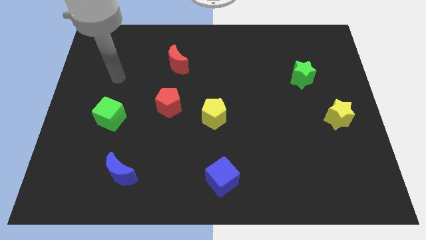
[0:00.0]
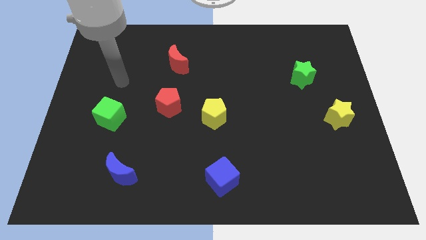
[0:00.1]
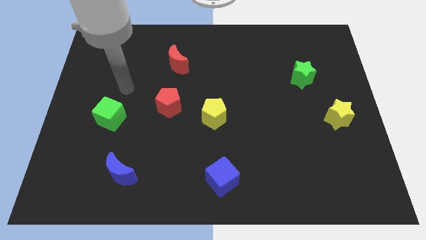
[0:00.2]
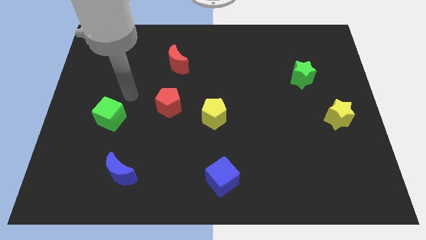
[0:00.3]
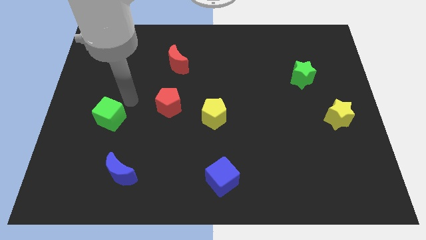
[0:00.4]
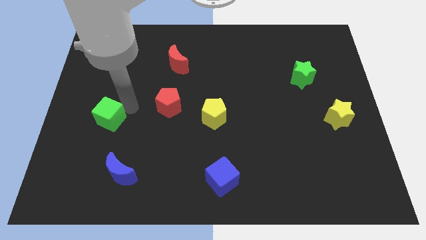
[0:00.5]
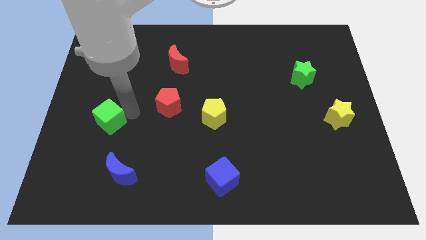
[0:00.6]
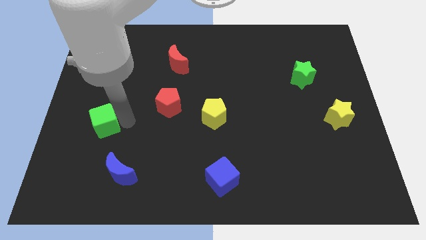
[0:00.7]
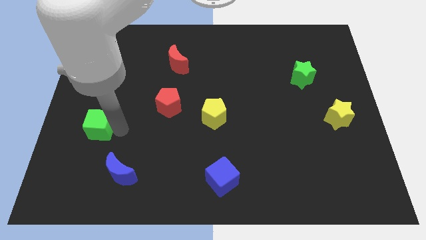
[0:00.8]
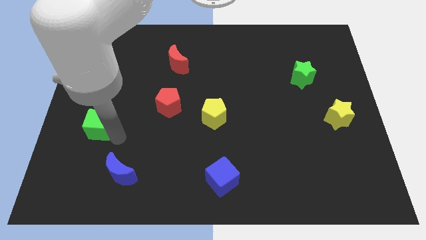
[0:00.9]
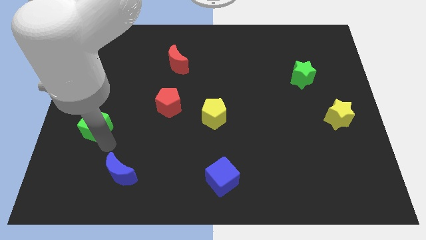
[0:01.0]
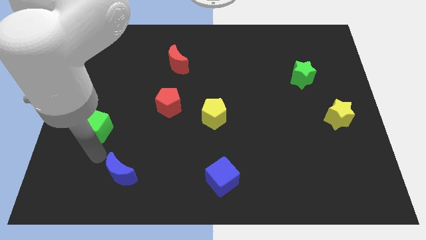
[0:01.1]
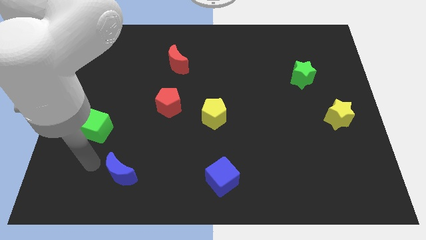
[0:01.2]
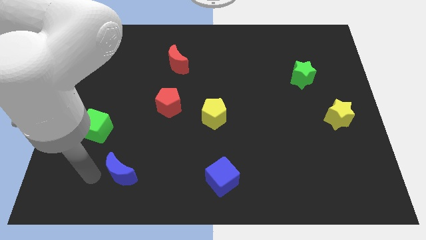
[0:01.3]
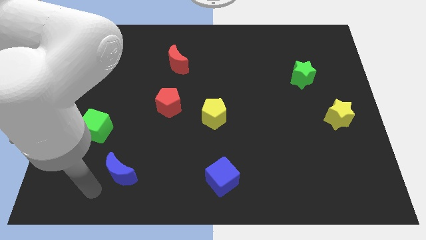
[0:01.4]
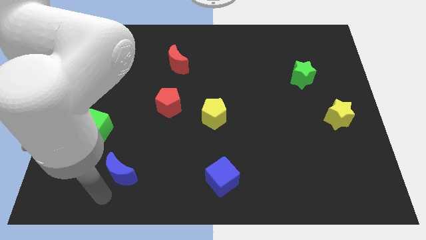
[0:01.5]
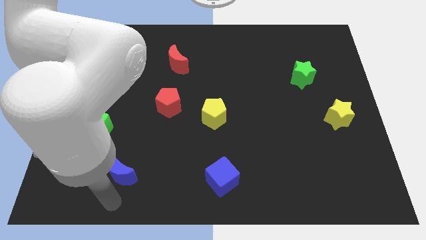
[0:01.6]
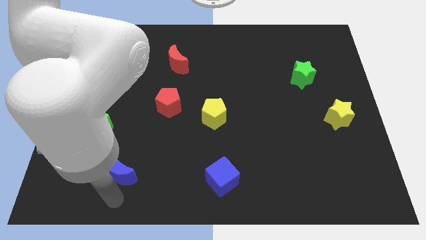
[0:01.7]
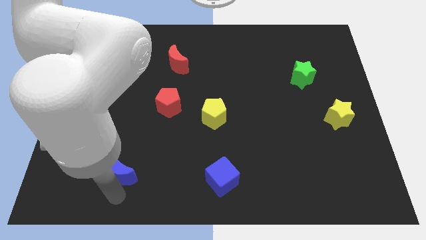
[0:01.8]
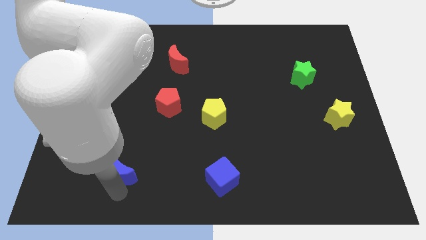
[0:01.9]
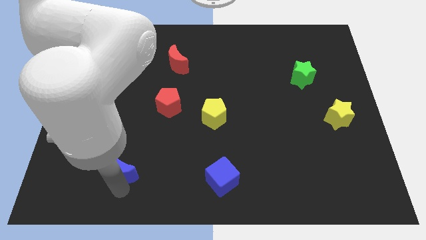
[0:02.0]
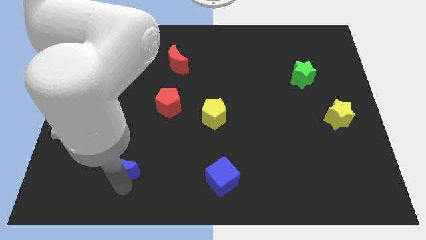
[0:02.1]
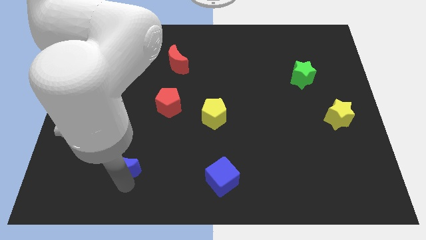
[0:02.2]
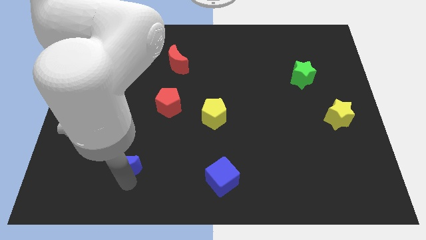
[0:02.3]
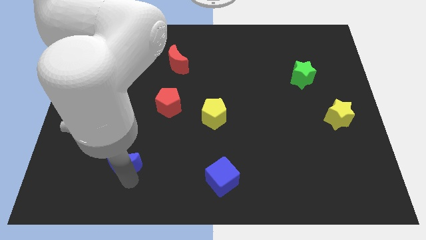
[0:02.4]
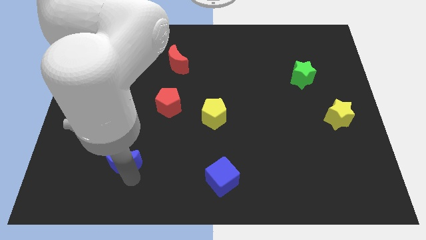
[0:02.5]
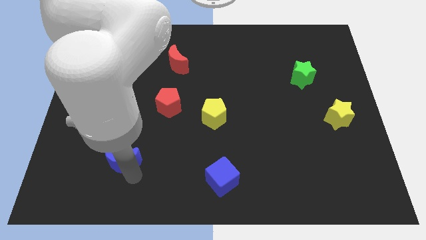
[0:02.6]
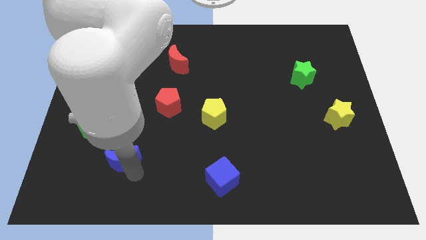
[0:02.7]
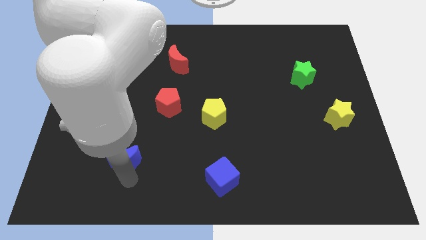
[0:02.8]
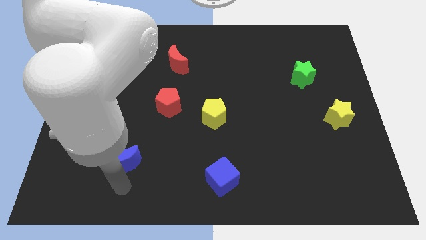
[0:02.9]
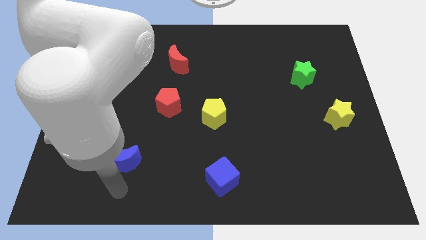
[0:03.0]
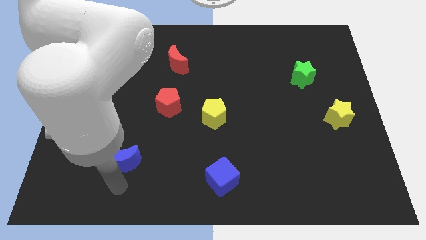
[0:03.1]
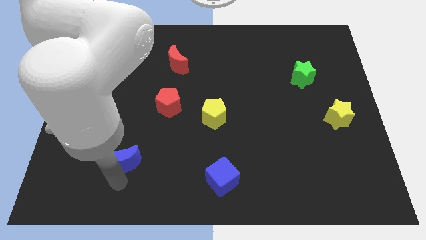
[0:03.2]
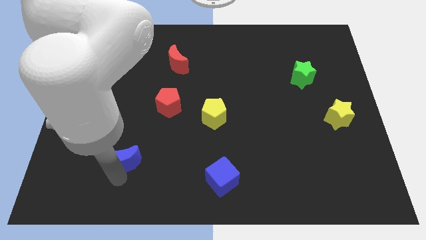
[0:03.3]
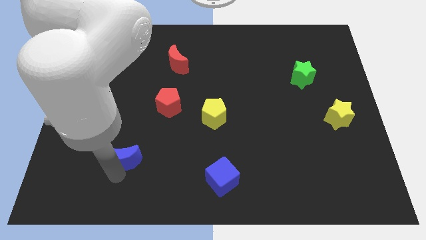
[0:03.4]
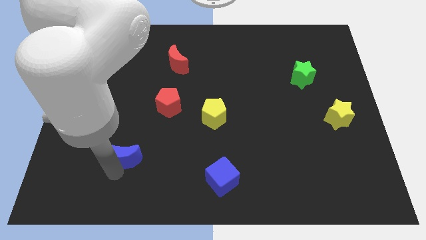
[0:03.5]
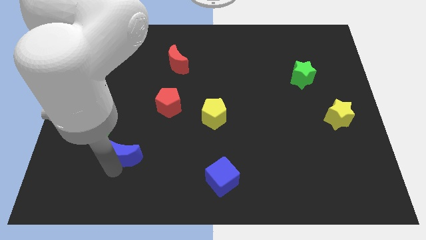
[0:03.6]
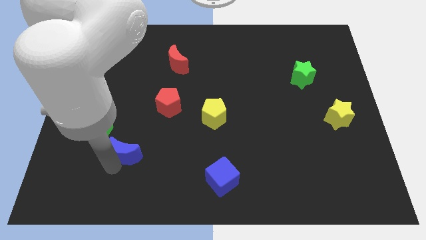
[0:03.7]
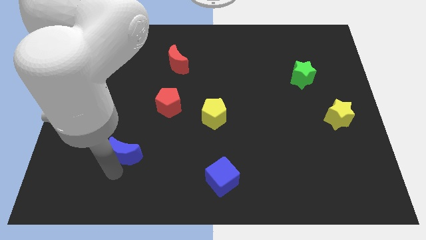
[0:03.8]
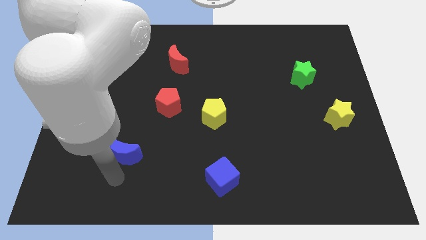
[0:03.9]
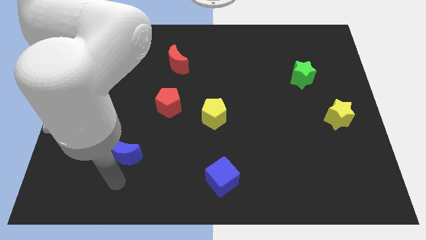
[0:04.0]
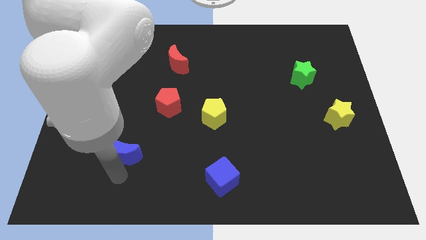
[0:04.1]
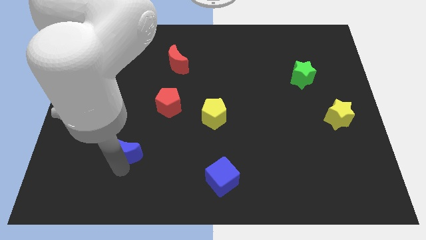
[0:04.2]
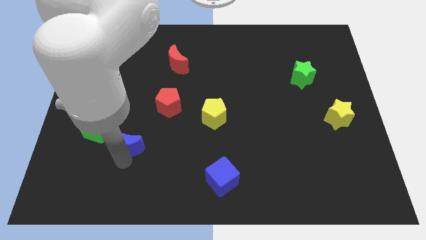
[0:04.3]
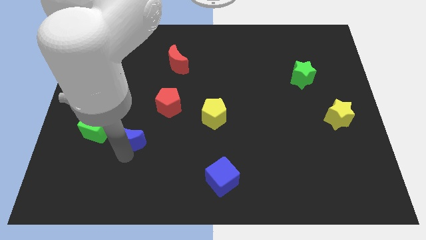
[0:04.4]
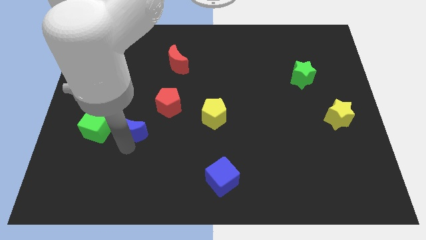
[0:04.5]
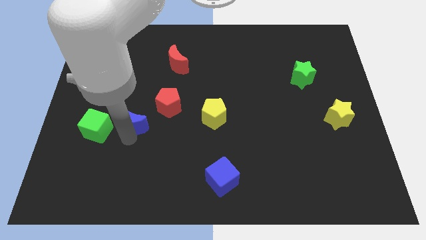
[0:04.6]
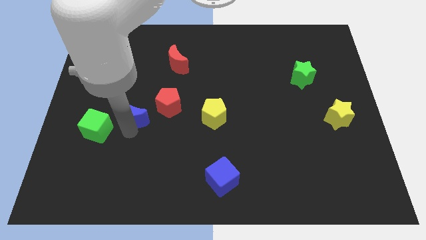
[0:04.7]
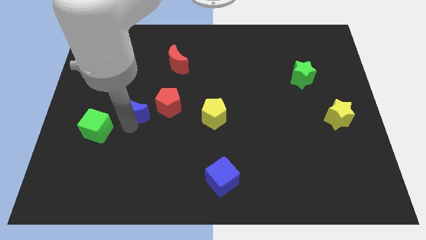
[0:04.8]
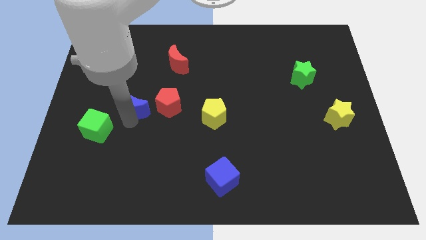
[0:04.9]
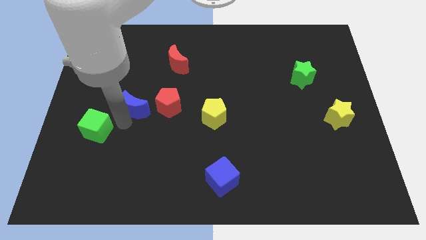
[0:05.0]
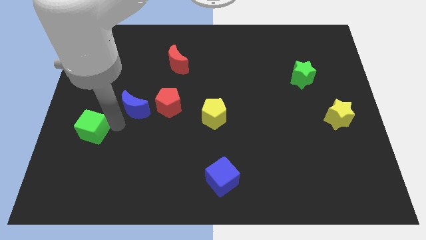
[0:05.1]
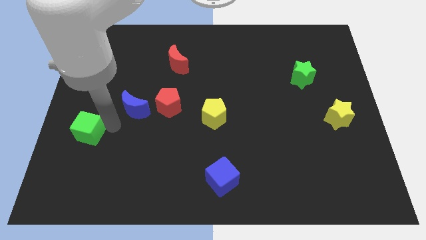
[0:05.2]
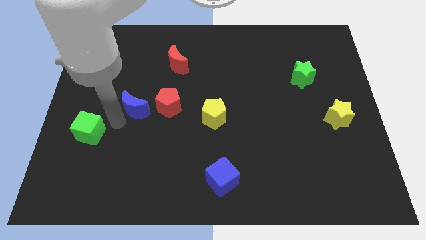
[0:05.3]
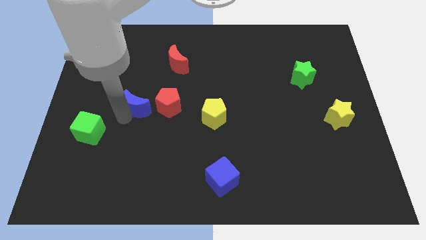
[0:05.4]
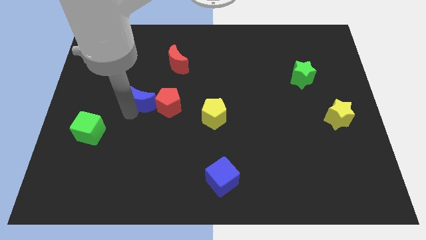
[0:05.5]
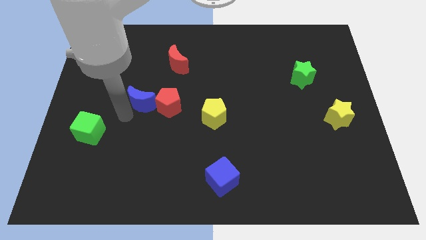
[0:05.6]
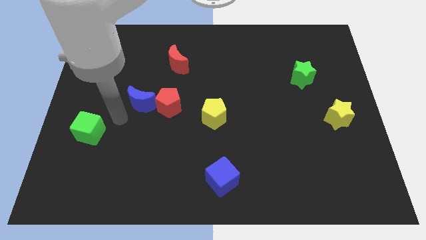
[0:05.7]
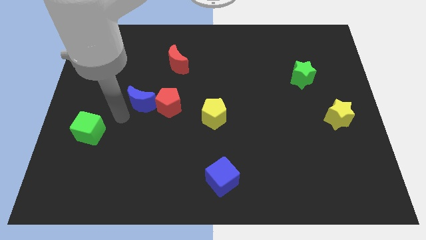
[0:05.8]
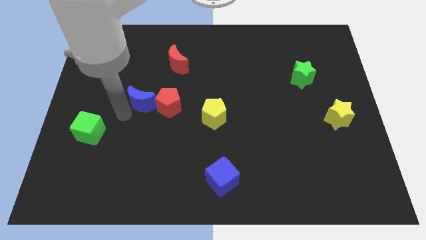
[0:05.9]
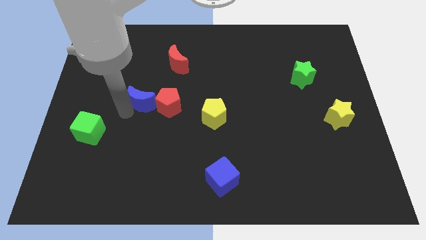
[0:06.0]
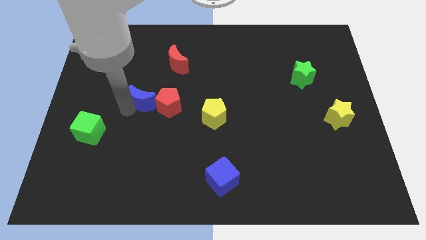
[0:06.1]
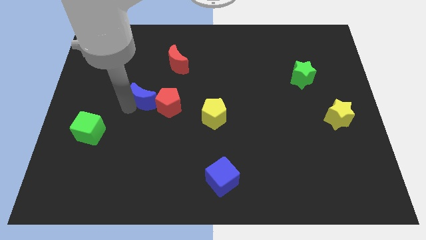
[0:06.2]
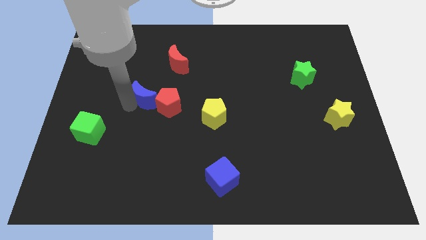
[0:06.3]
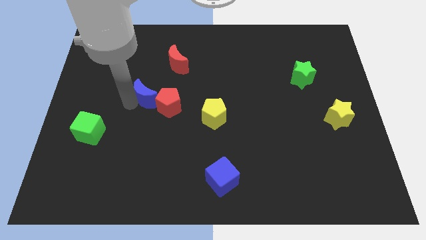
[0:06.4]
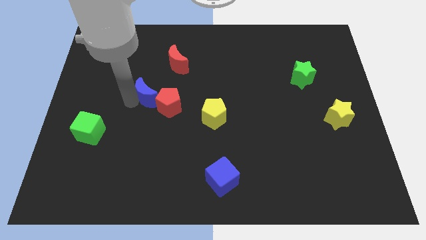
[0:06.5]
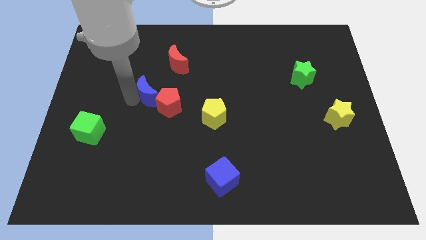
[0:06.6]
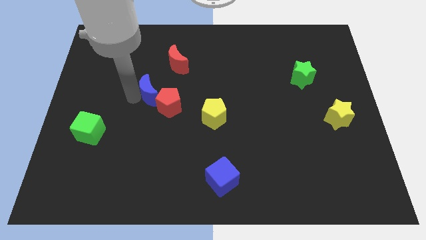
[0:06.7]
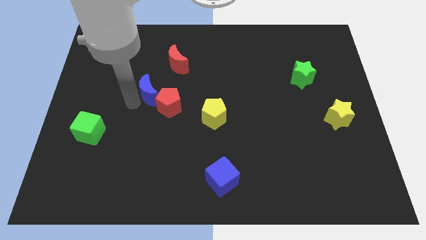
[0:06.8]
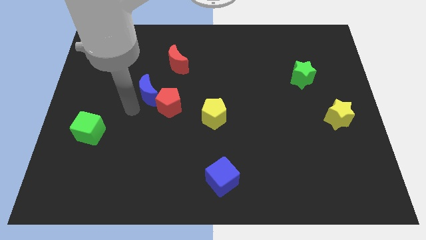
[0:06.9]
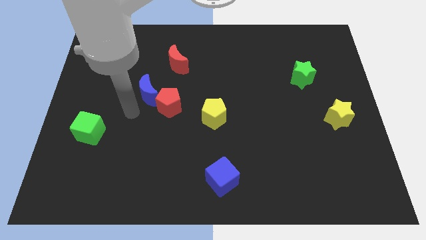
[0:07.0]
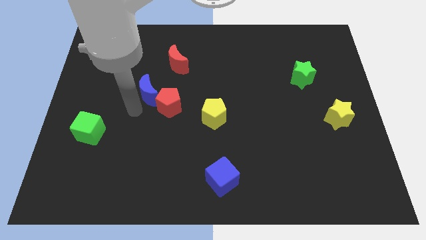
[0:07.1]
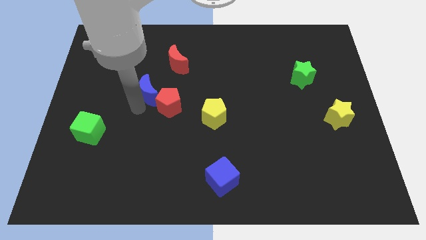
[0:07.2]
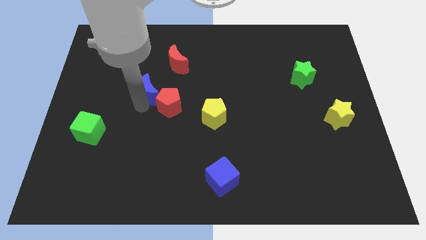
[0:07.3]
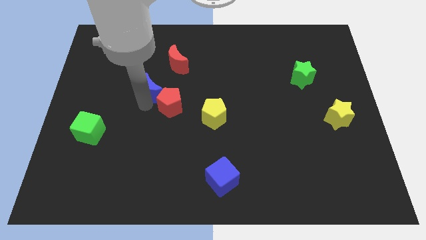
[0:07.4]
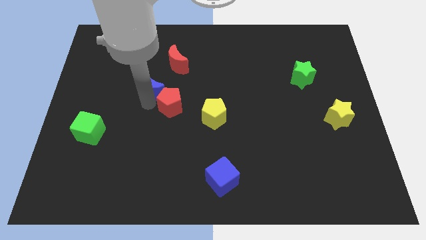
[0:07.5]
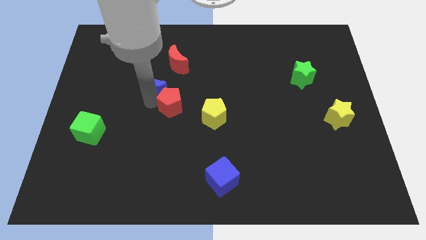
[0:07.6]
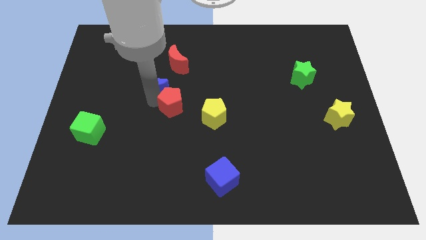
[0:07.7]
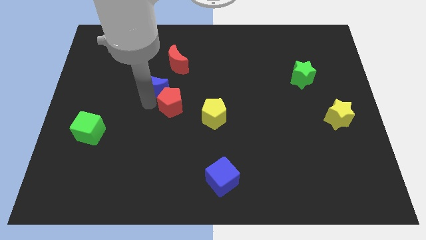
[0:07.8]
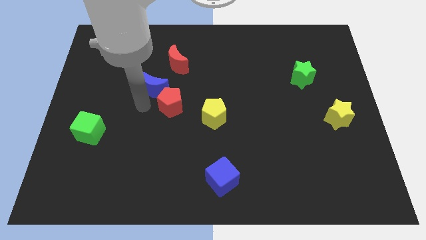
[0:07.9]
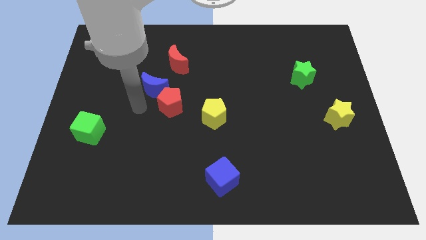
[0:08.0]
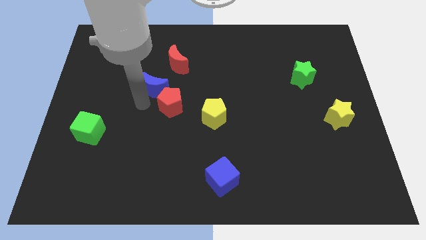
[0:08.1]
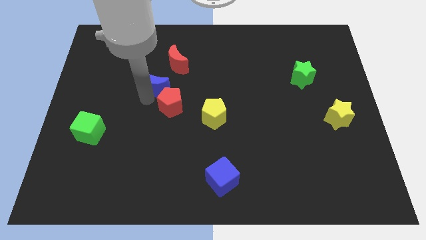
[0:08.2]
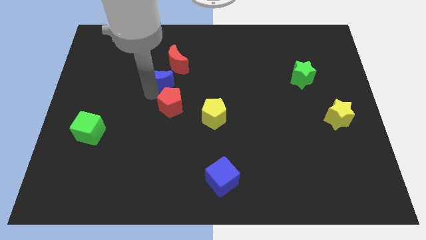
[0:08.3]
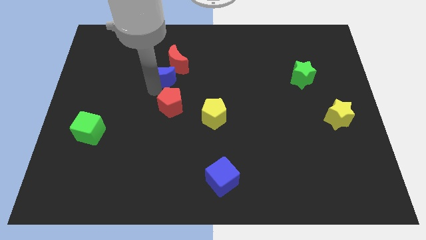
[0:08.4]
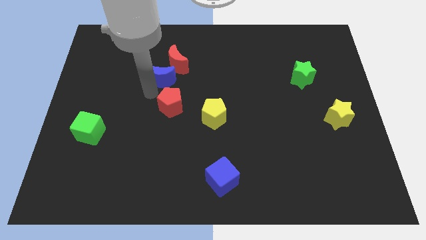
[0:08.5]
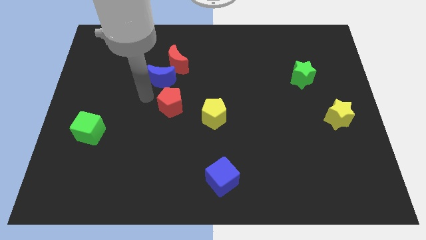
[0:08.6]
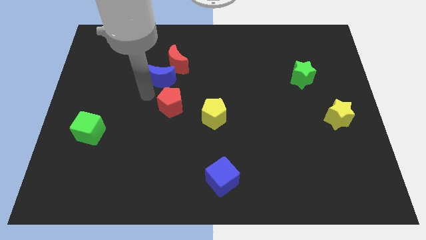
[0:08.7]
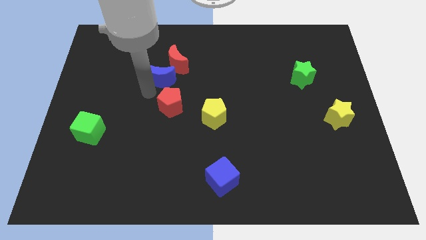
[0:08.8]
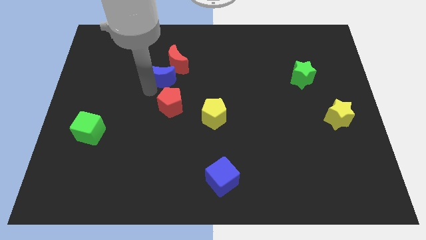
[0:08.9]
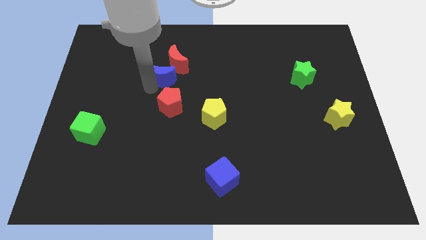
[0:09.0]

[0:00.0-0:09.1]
put the blue moon next to the red moon
